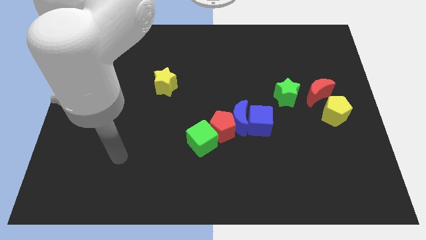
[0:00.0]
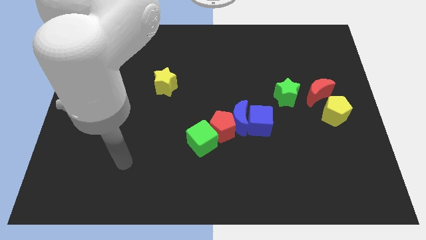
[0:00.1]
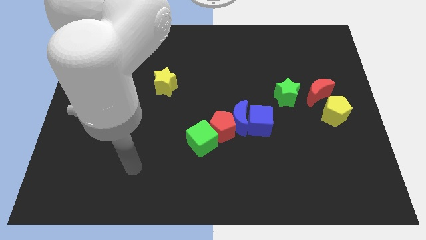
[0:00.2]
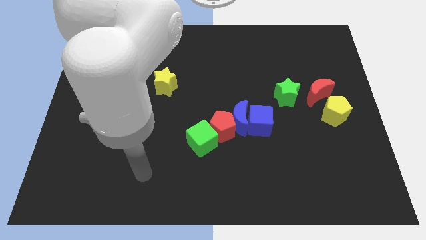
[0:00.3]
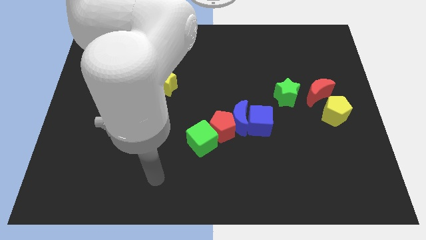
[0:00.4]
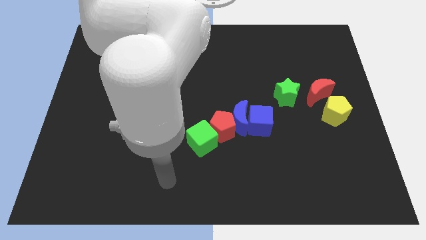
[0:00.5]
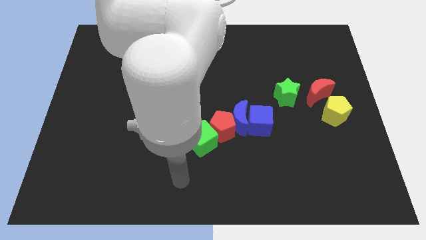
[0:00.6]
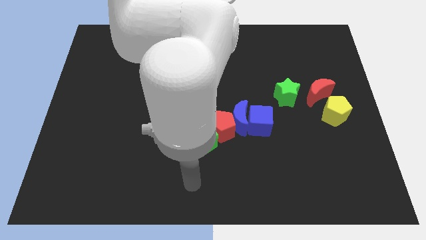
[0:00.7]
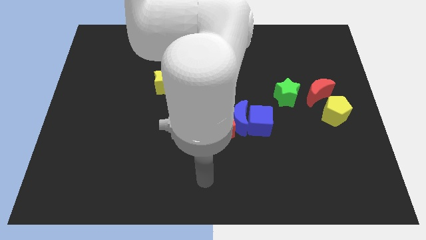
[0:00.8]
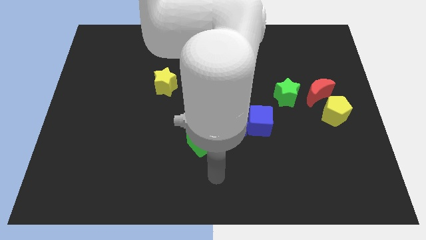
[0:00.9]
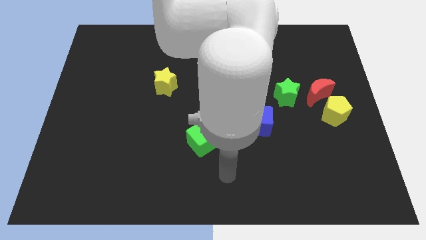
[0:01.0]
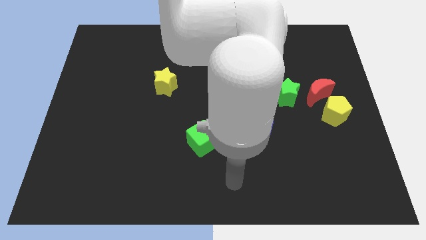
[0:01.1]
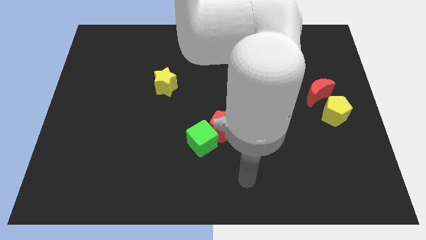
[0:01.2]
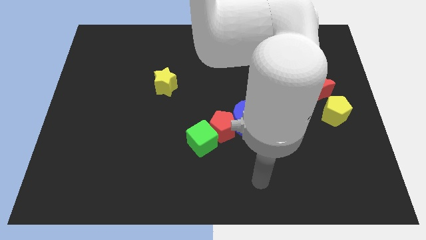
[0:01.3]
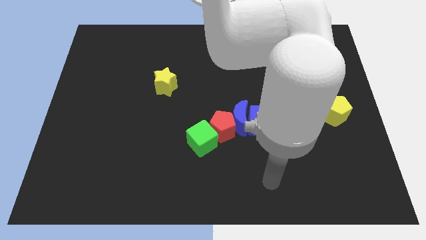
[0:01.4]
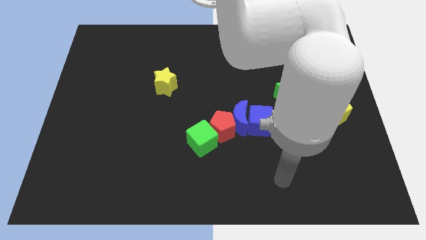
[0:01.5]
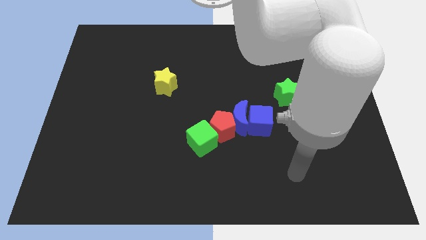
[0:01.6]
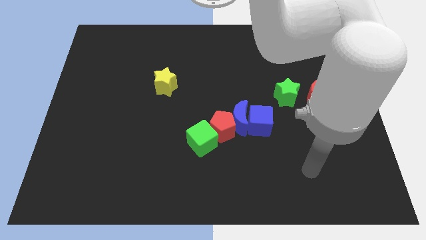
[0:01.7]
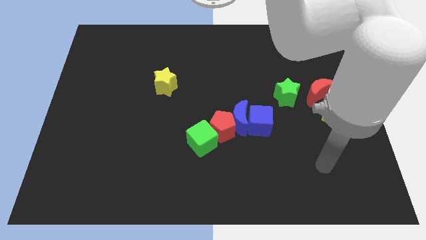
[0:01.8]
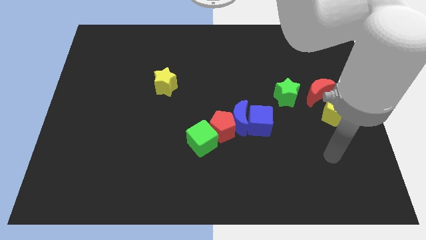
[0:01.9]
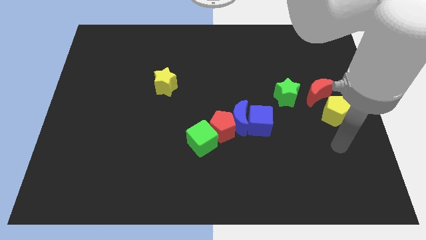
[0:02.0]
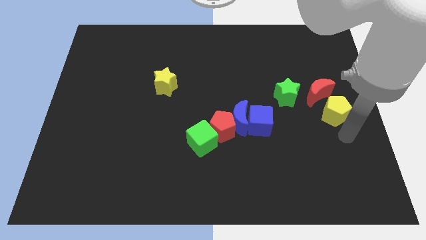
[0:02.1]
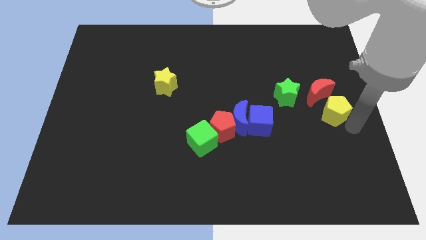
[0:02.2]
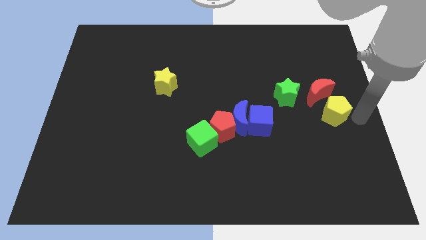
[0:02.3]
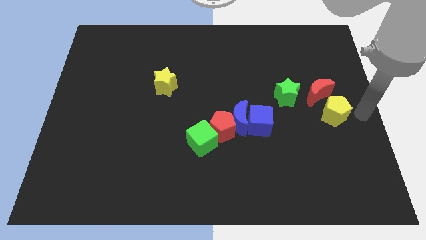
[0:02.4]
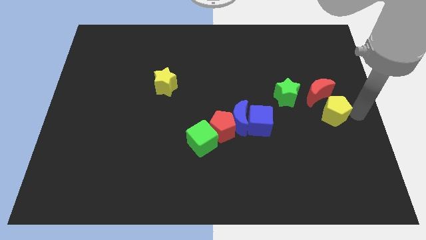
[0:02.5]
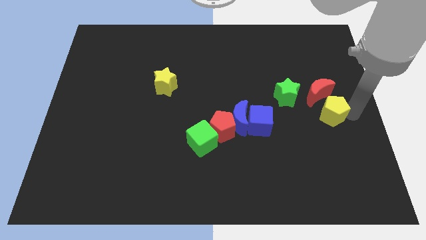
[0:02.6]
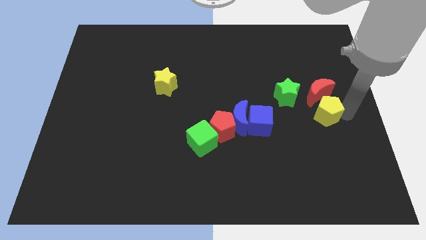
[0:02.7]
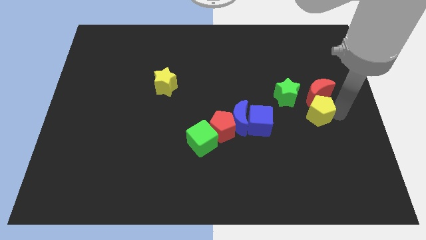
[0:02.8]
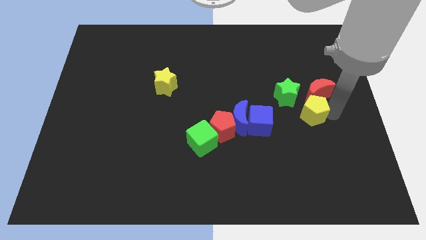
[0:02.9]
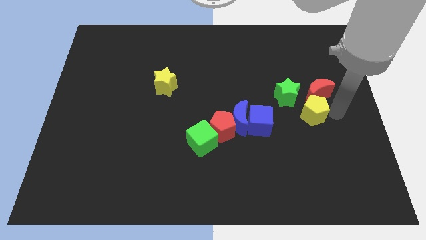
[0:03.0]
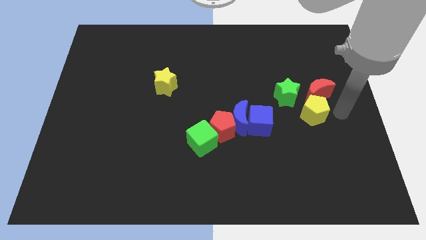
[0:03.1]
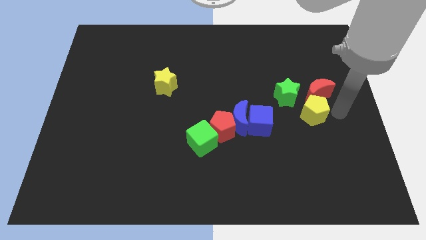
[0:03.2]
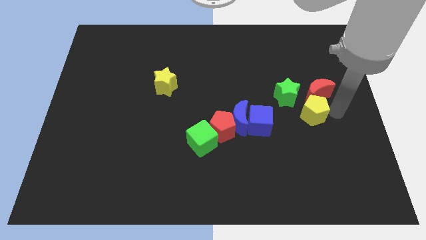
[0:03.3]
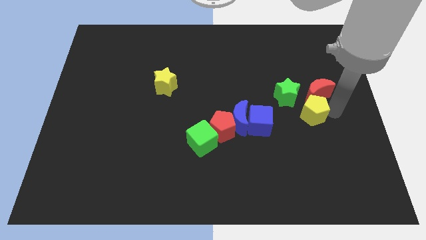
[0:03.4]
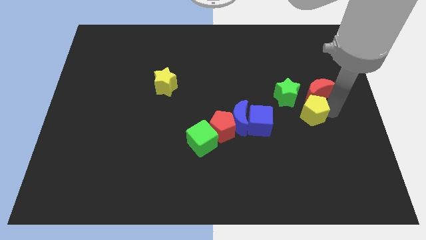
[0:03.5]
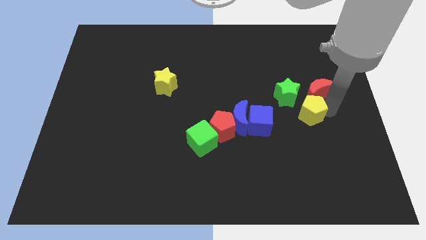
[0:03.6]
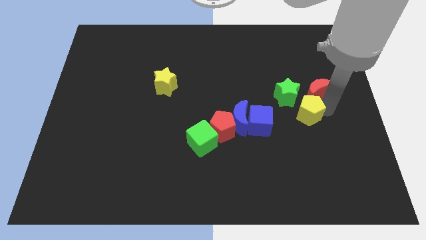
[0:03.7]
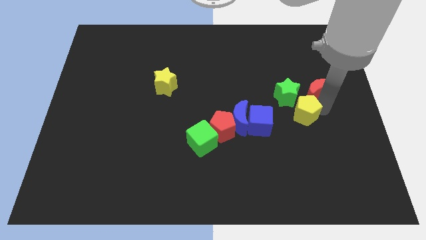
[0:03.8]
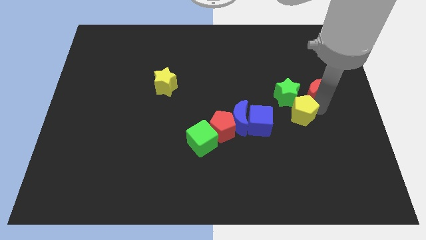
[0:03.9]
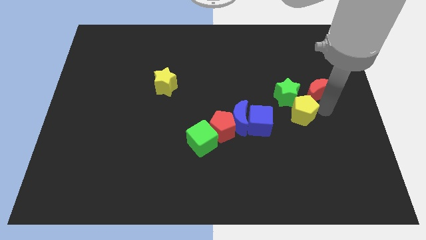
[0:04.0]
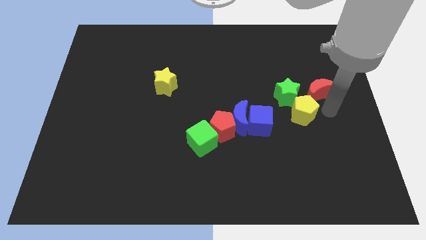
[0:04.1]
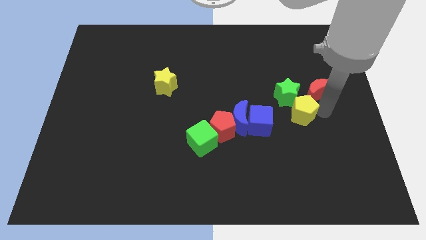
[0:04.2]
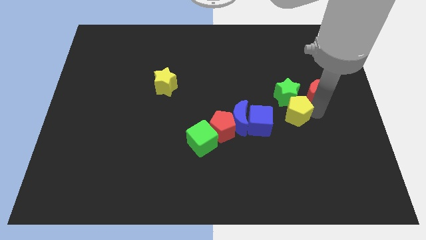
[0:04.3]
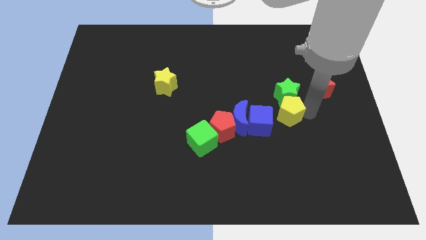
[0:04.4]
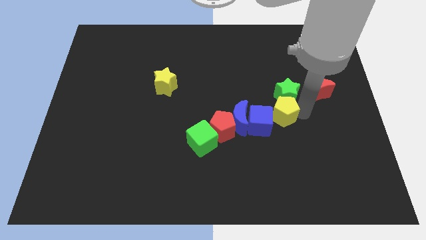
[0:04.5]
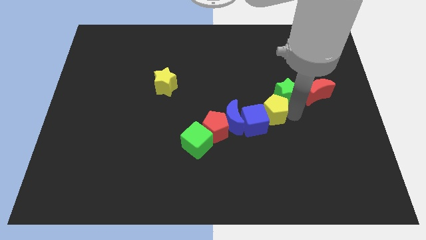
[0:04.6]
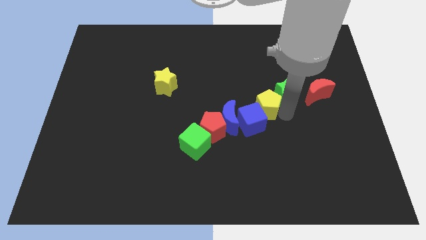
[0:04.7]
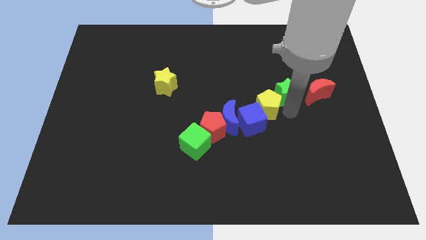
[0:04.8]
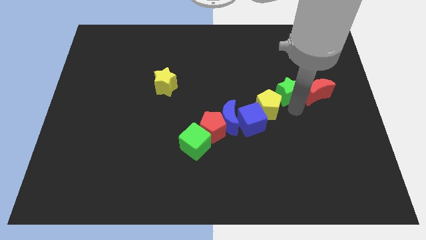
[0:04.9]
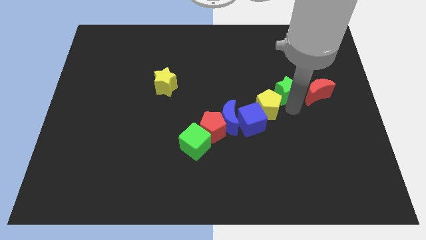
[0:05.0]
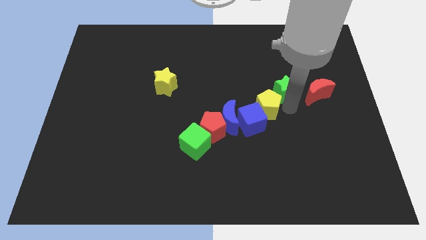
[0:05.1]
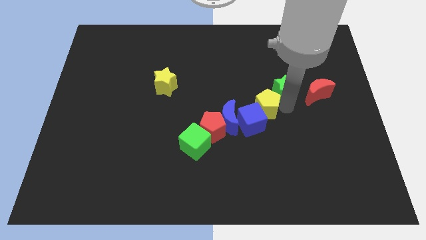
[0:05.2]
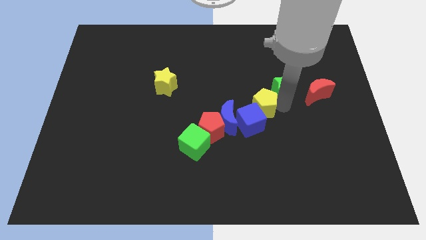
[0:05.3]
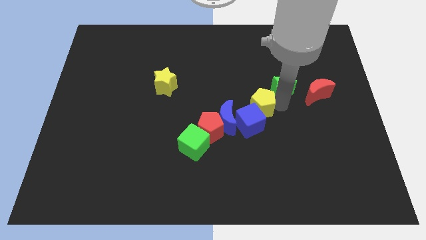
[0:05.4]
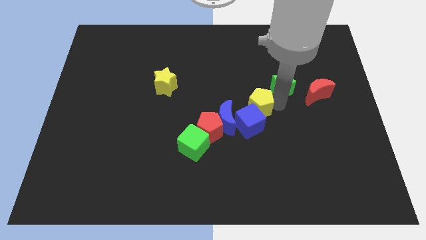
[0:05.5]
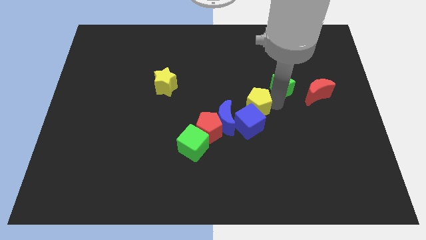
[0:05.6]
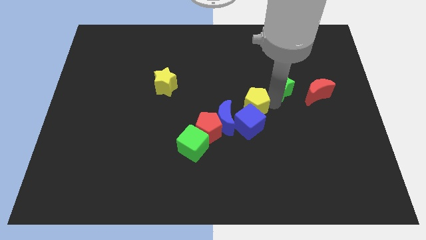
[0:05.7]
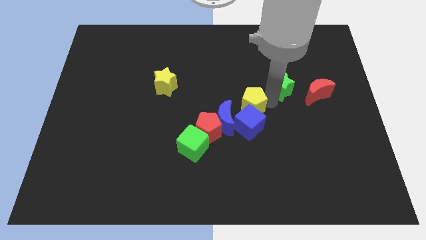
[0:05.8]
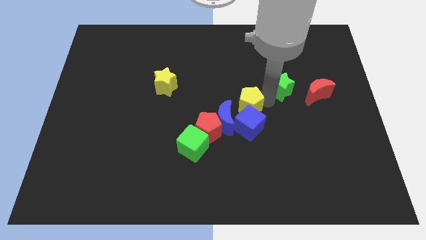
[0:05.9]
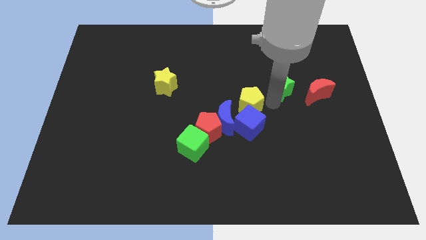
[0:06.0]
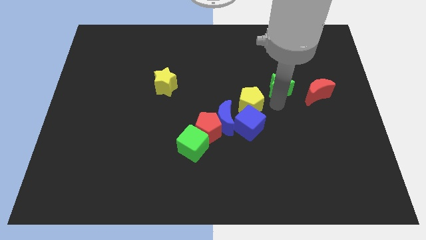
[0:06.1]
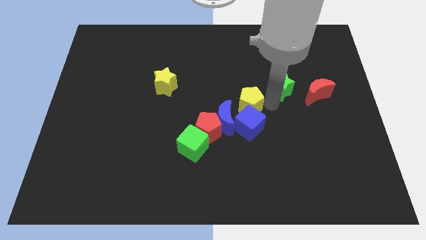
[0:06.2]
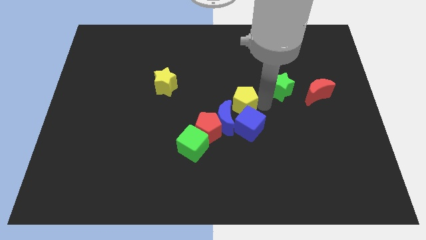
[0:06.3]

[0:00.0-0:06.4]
move the yellow pentagon to the left

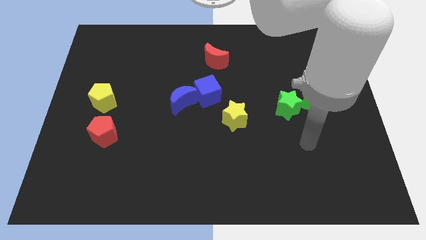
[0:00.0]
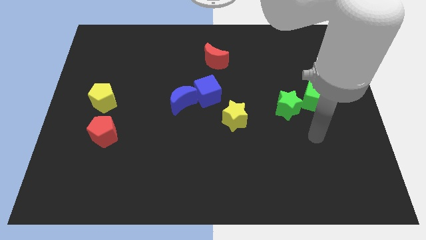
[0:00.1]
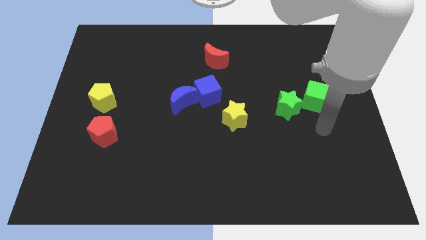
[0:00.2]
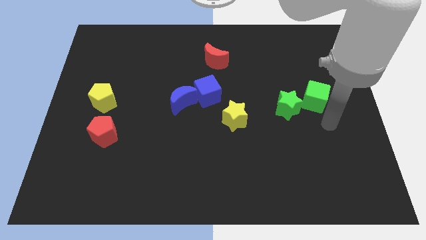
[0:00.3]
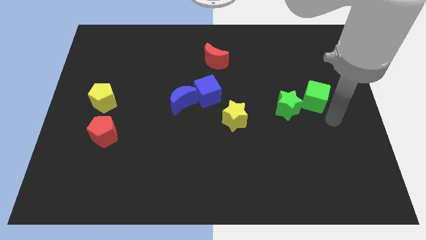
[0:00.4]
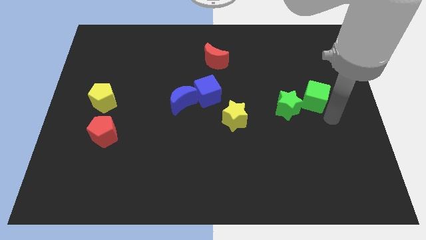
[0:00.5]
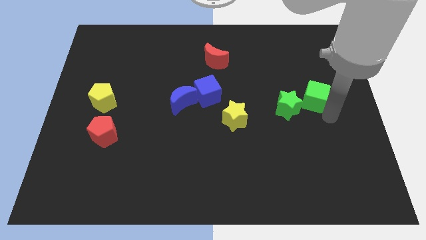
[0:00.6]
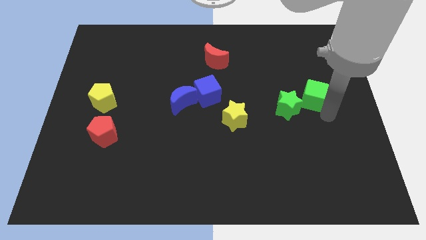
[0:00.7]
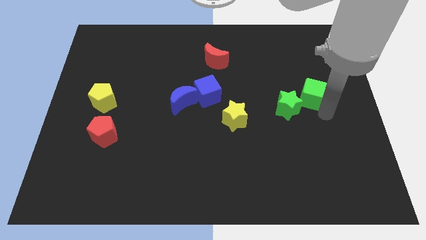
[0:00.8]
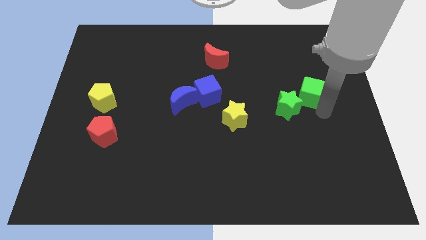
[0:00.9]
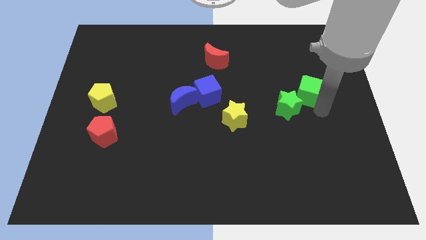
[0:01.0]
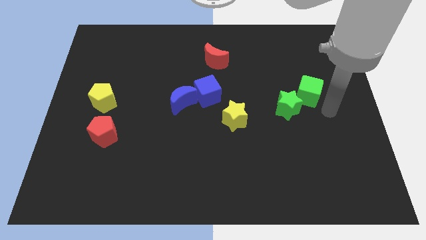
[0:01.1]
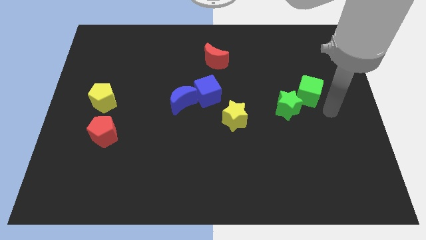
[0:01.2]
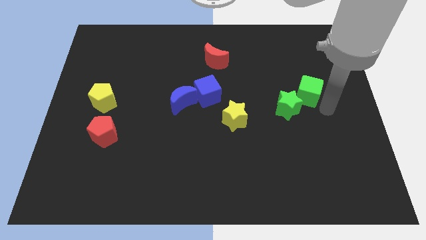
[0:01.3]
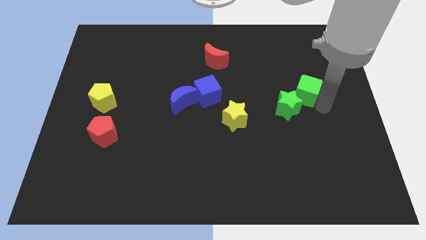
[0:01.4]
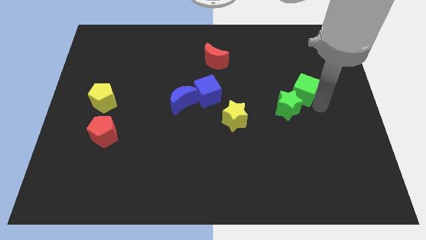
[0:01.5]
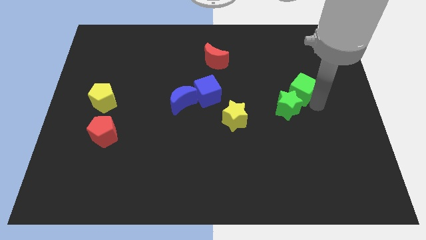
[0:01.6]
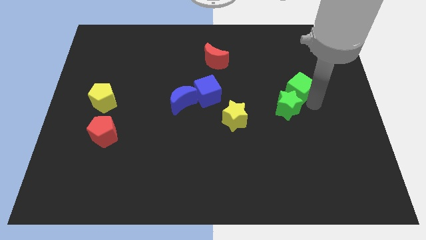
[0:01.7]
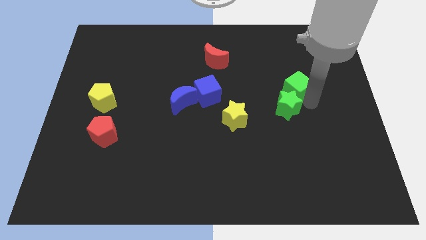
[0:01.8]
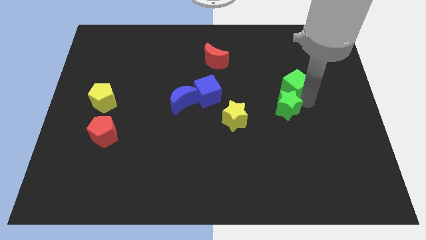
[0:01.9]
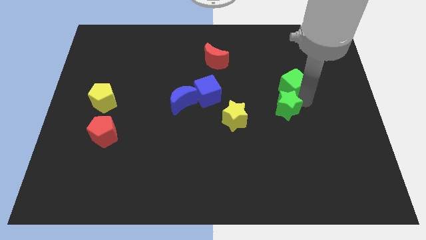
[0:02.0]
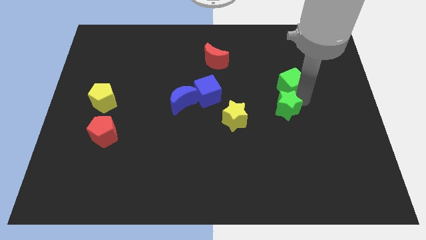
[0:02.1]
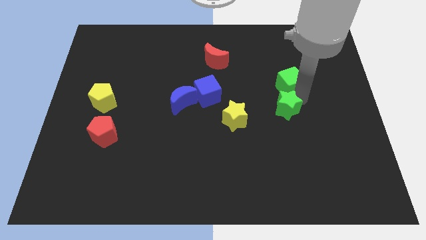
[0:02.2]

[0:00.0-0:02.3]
slide the green cube slightly diagonally up and left
